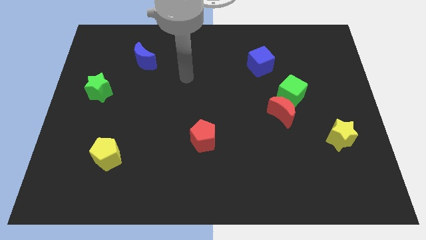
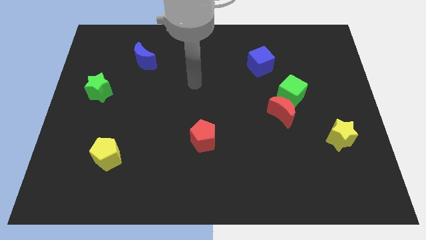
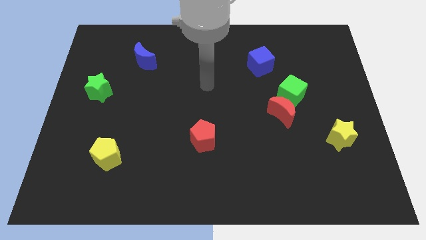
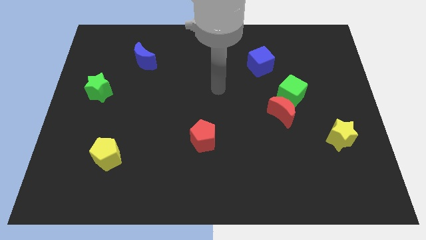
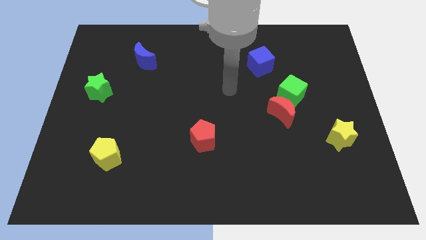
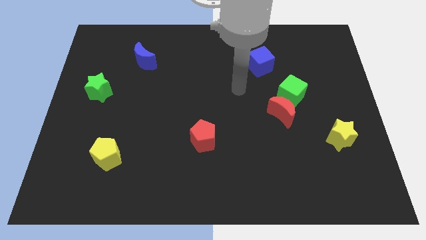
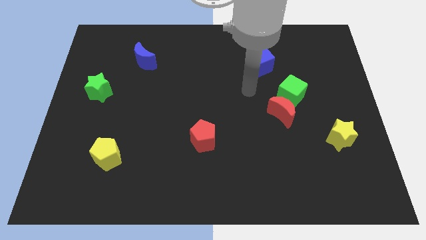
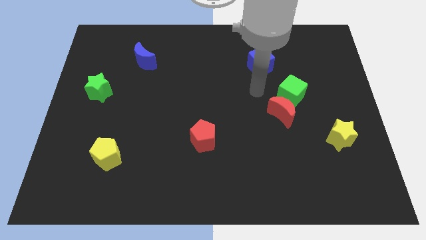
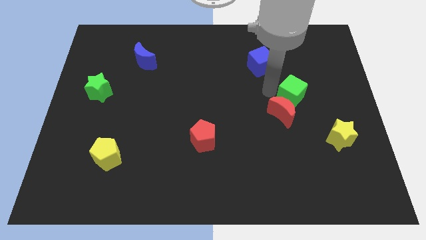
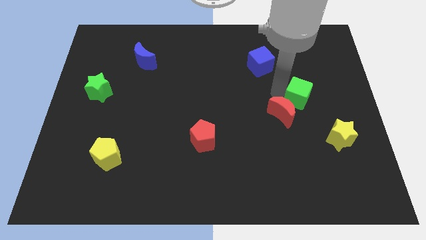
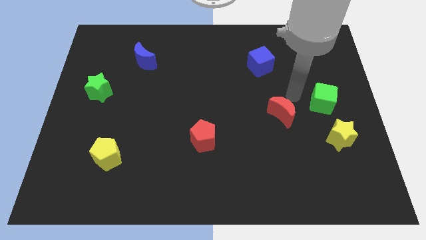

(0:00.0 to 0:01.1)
pull the red moon apart from the green cube

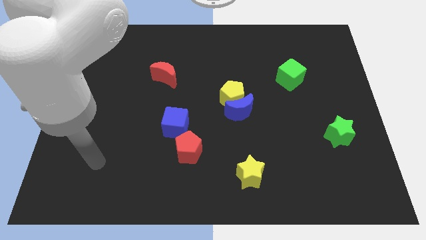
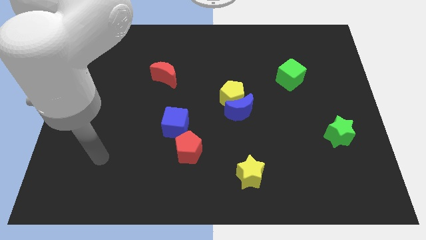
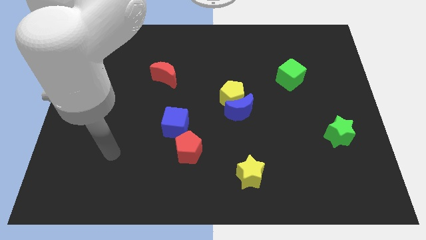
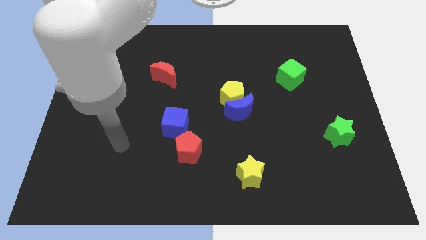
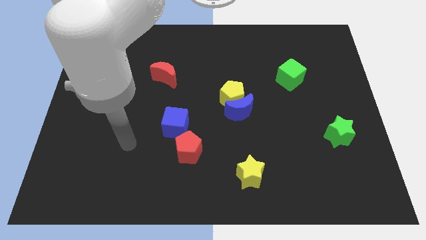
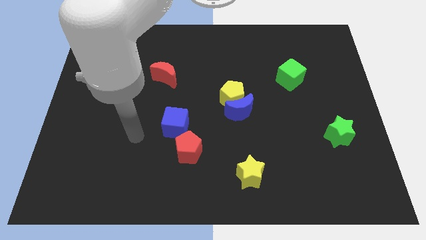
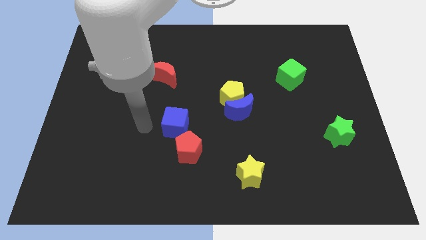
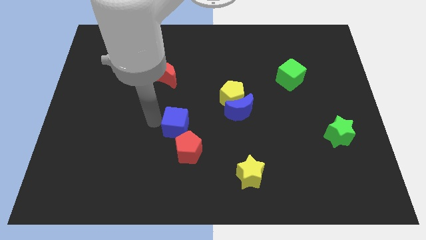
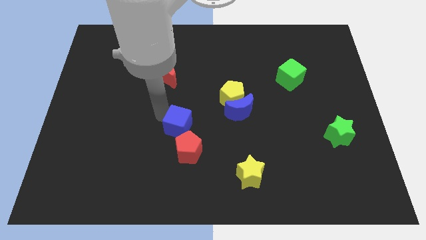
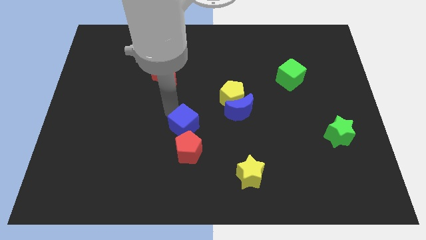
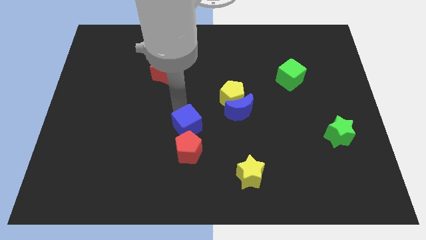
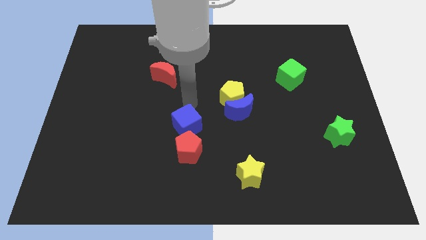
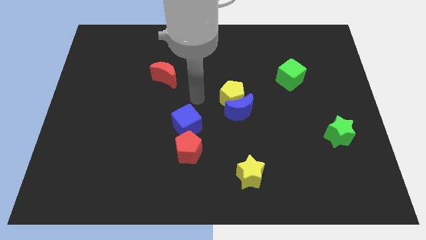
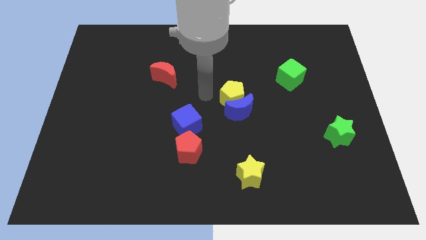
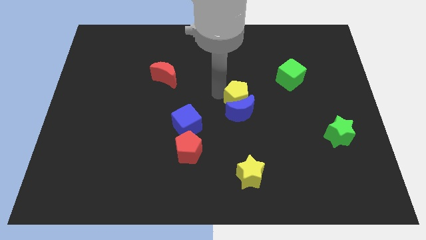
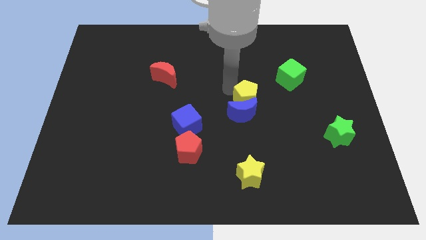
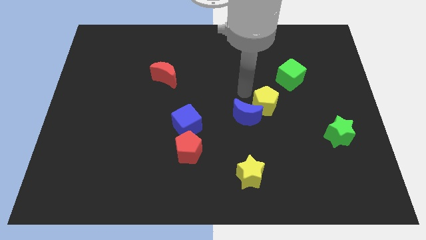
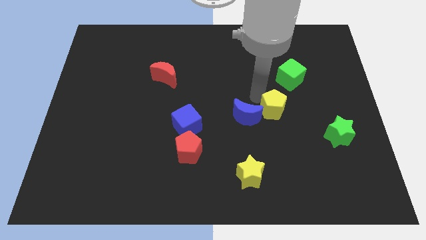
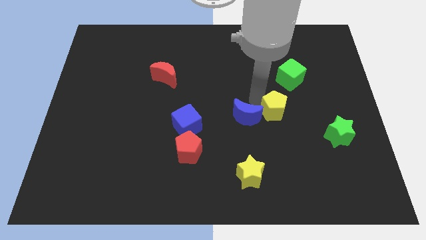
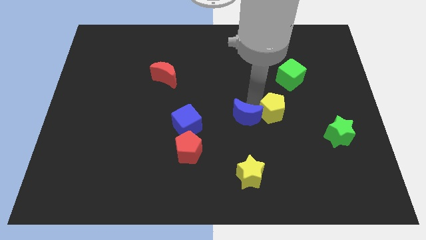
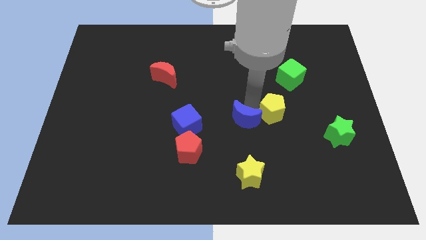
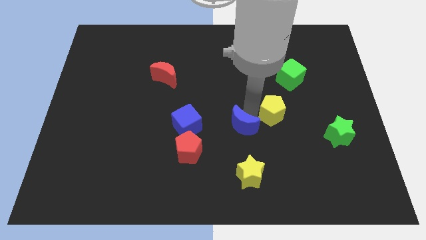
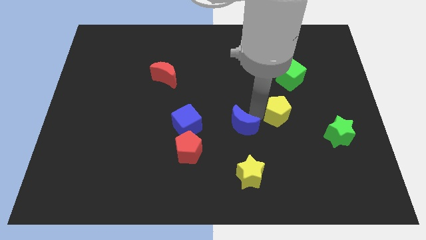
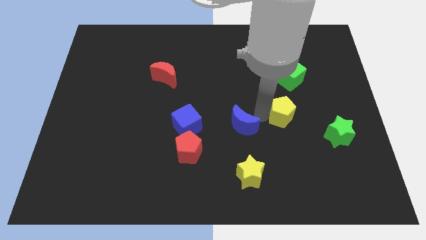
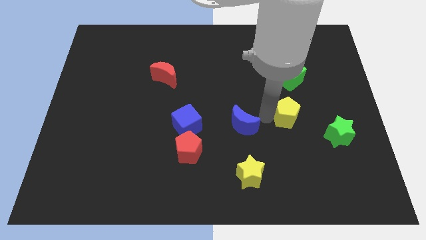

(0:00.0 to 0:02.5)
separate the blue moon from the yellow pentagon

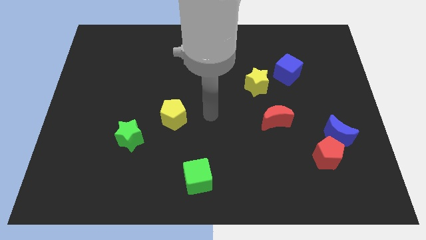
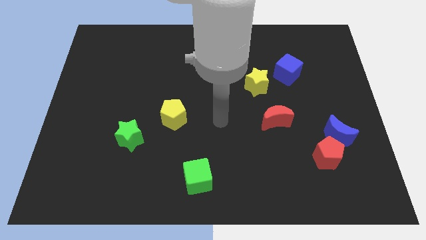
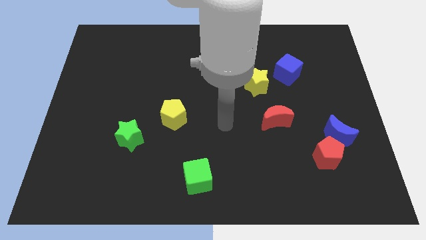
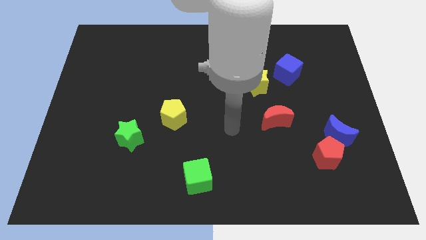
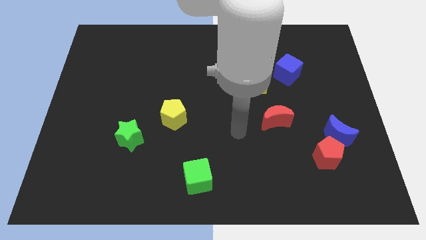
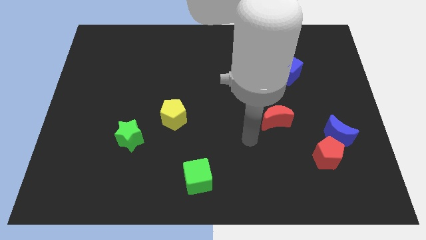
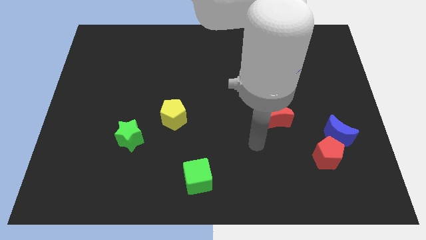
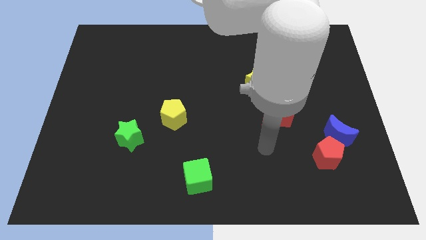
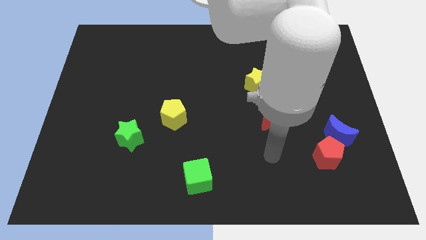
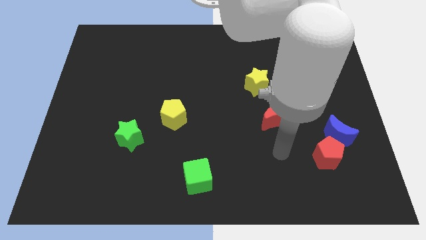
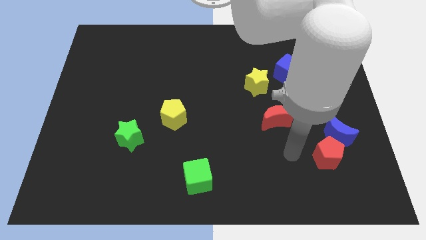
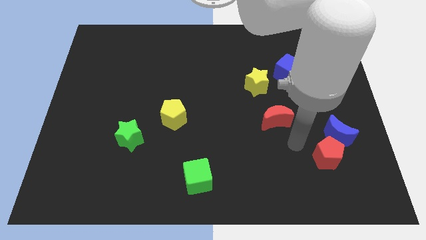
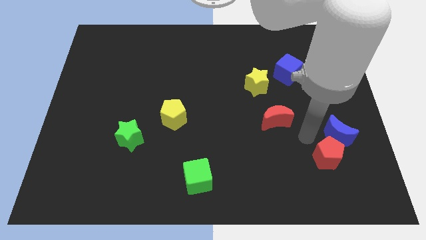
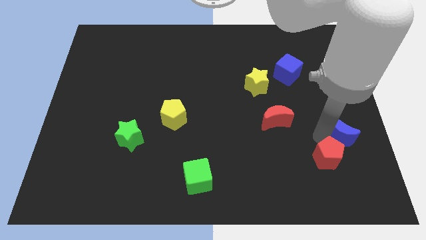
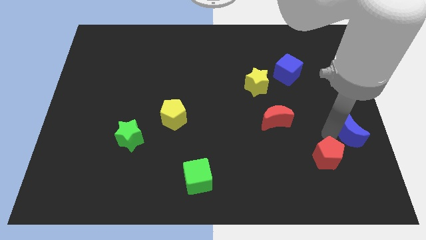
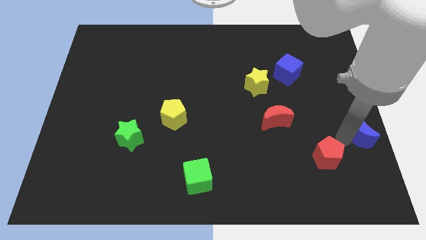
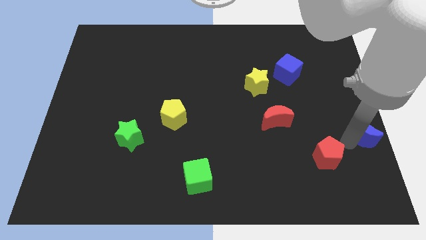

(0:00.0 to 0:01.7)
move the red pentagon away from the blue moon

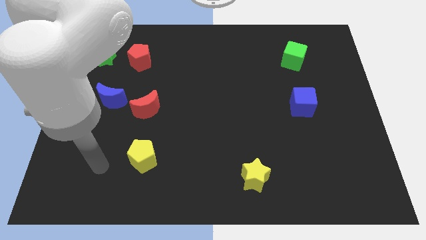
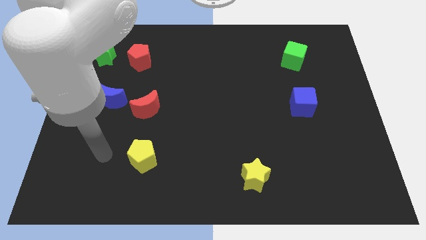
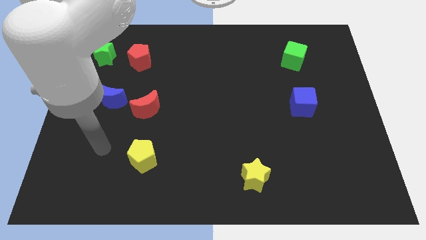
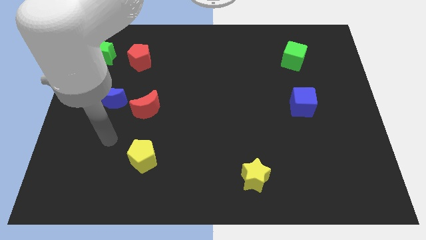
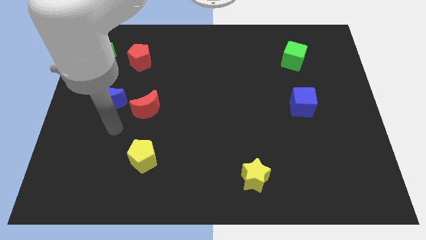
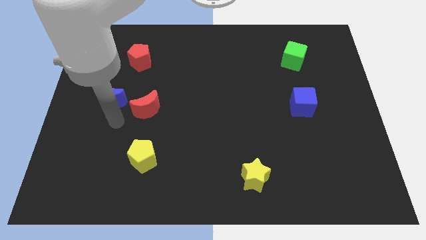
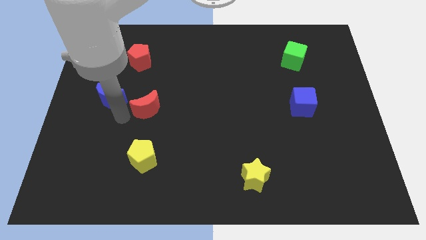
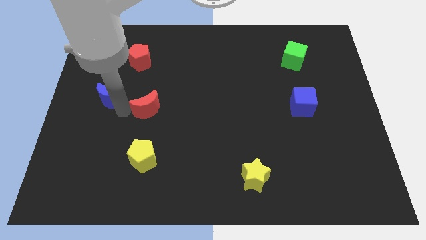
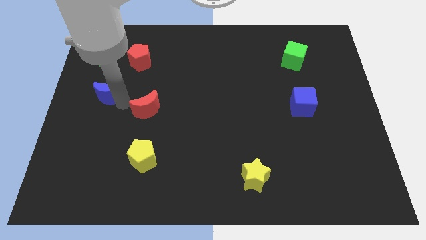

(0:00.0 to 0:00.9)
separate the red moon from the blue moon

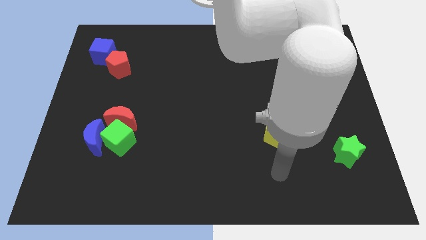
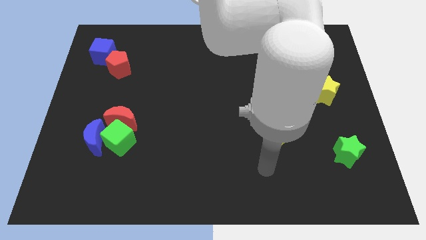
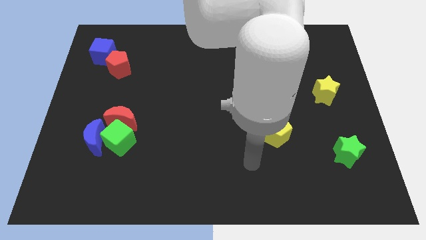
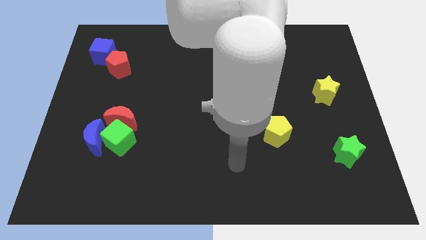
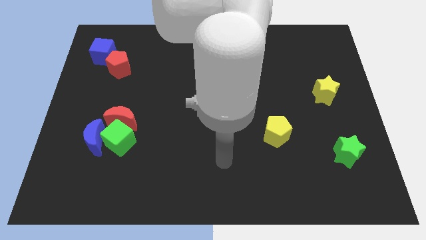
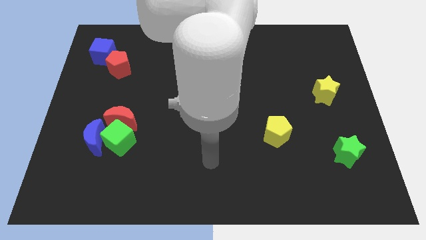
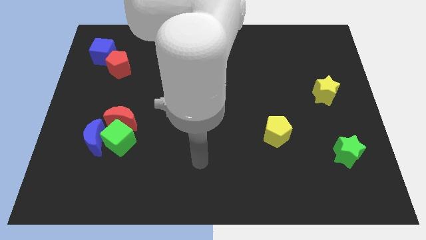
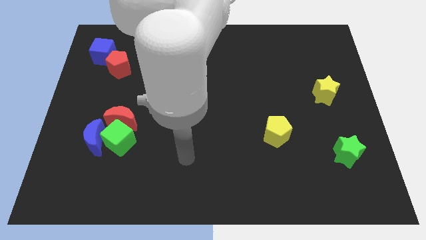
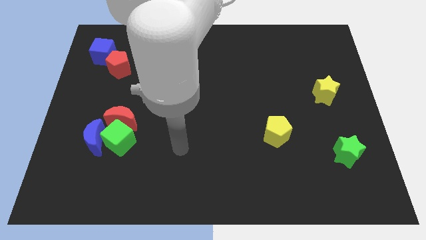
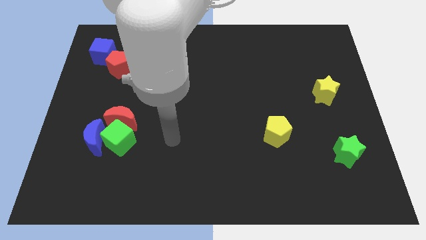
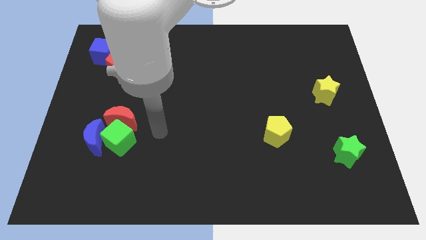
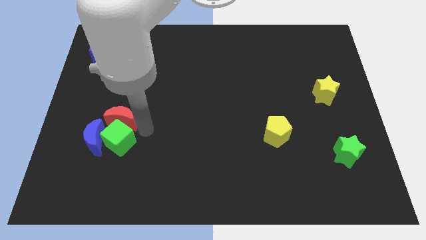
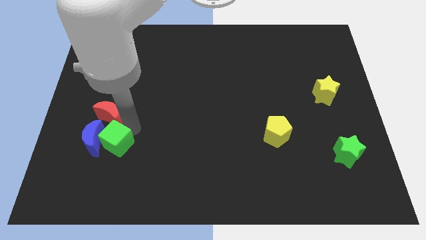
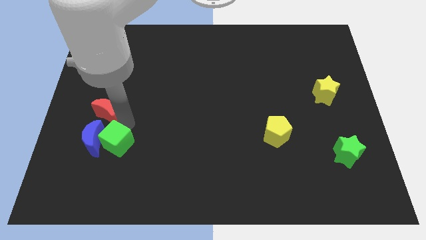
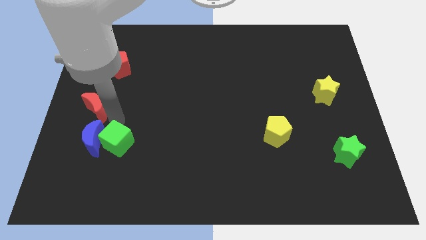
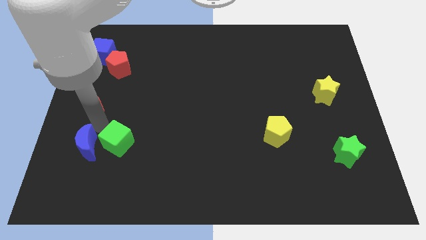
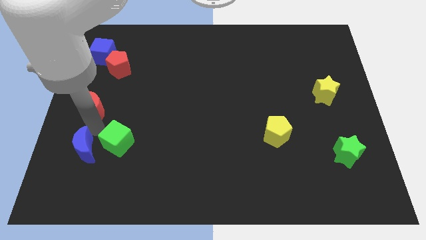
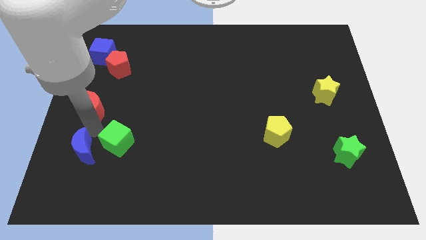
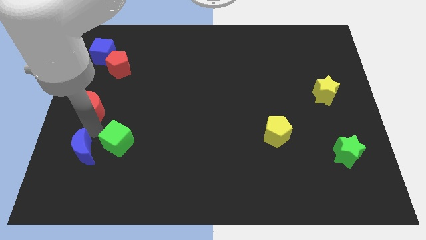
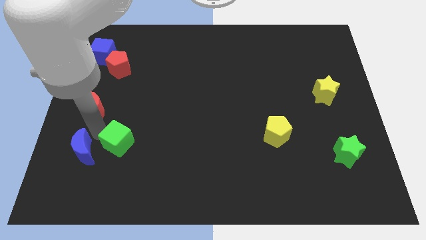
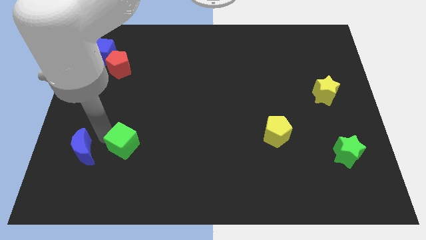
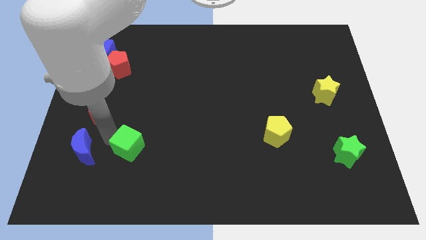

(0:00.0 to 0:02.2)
separate the green cube from the red moon and blue moon

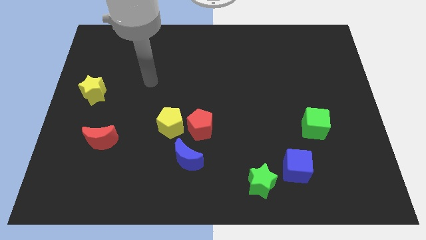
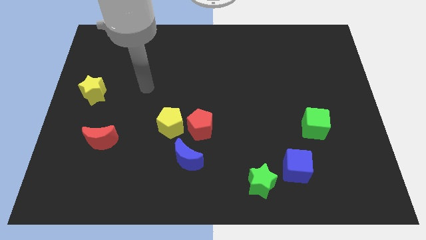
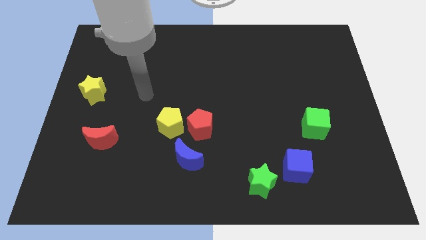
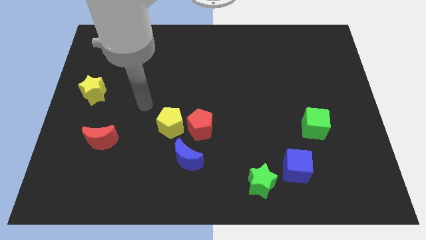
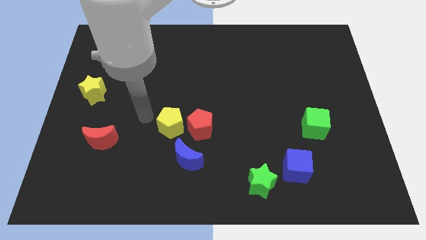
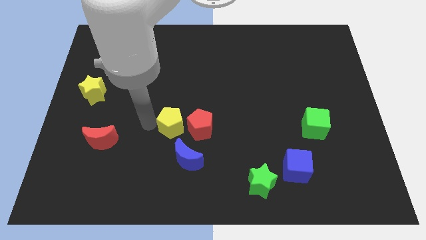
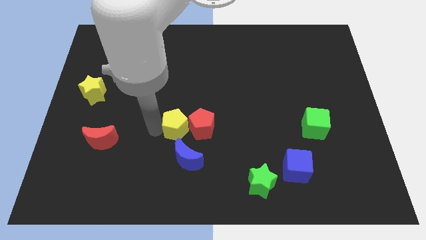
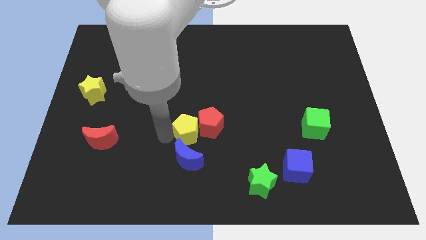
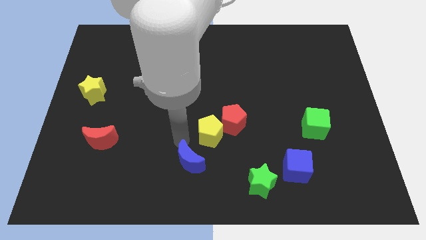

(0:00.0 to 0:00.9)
pull the red pentagon apart from the yellow pentagon and blue moon
